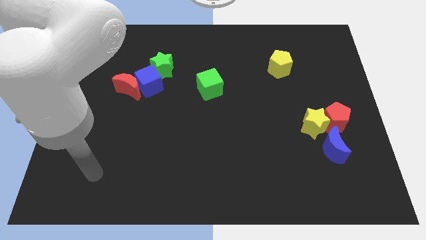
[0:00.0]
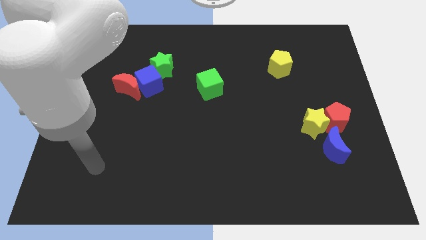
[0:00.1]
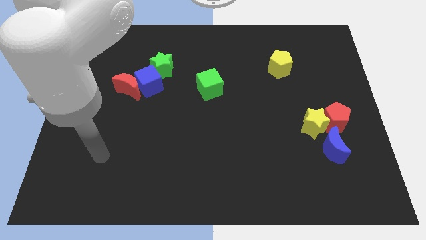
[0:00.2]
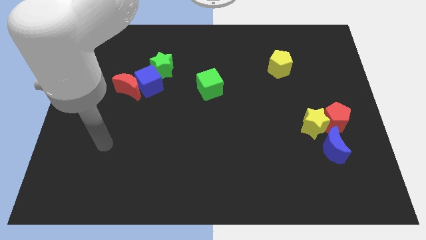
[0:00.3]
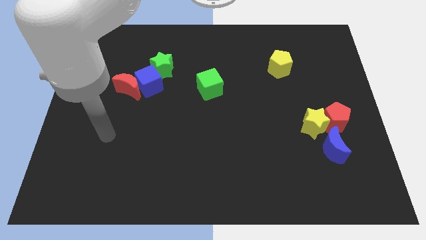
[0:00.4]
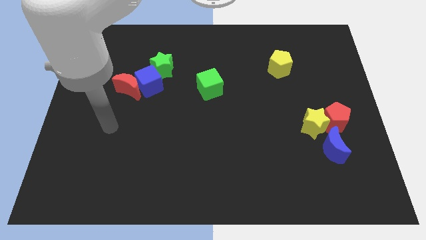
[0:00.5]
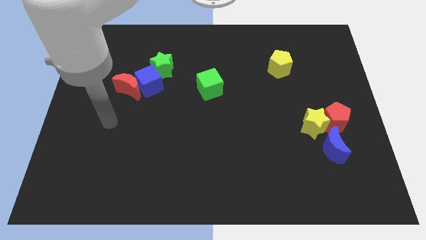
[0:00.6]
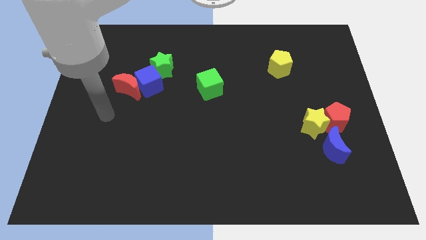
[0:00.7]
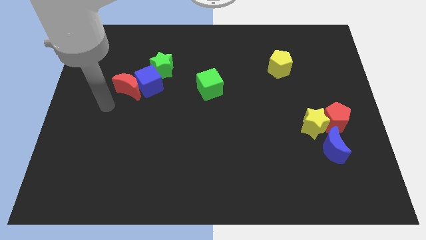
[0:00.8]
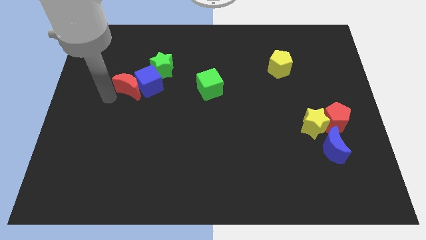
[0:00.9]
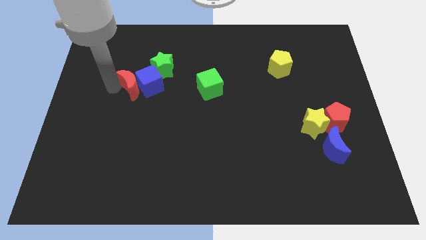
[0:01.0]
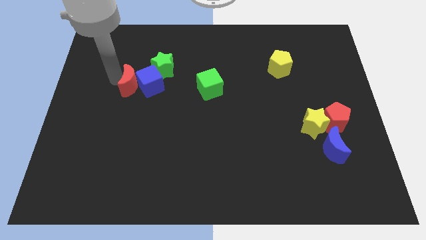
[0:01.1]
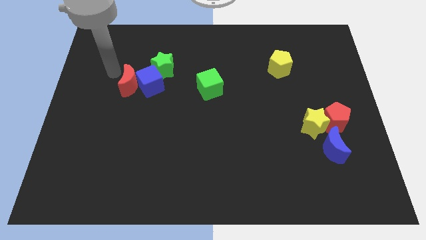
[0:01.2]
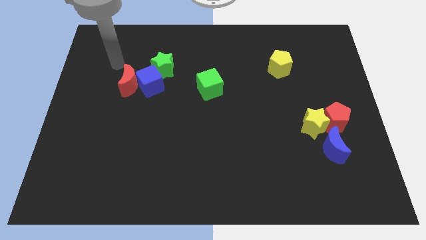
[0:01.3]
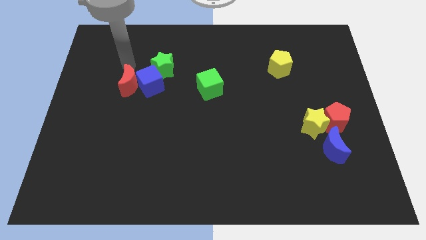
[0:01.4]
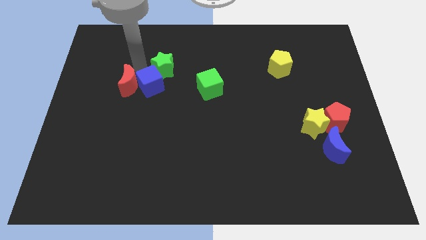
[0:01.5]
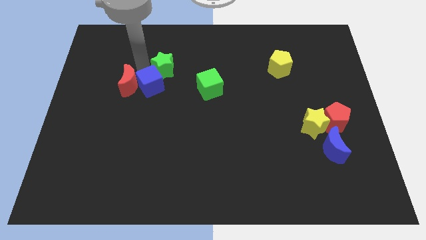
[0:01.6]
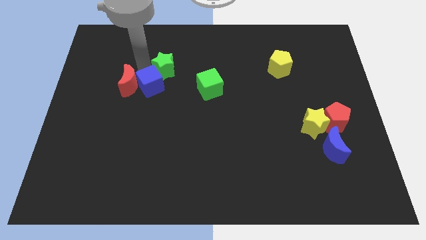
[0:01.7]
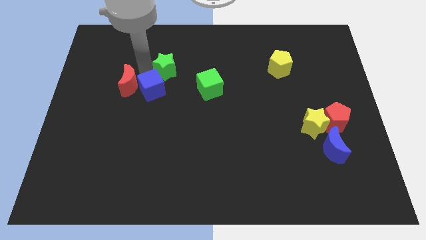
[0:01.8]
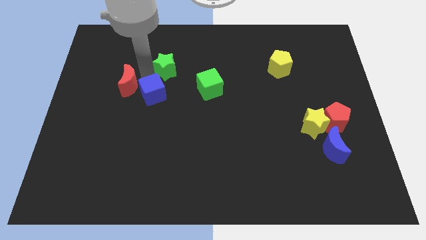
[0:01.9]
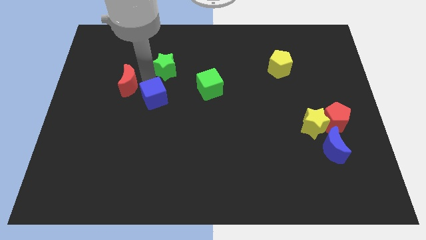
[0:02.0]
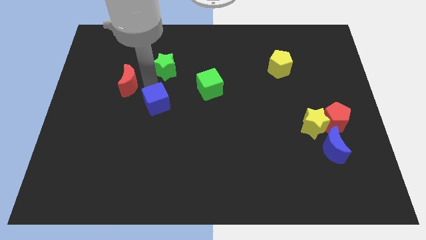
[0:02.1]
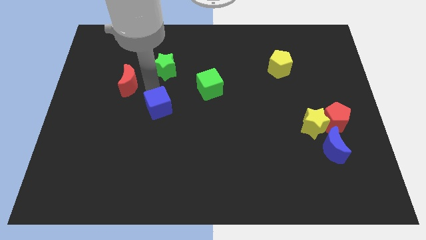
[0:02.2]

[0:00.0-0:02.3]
move the blue cube away from the red moon and green star

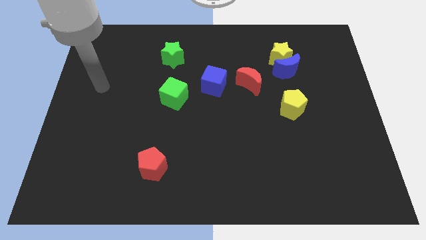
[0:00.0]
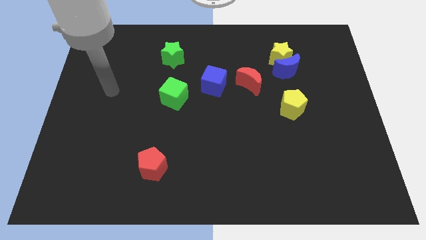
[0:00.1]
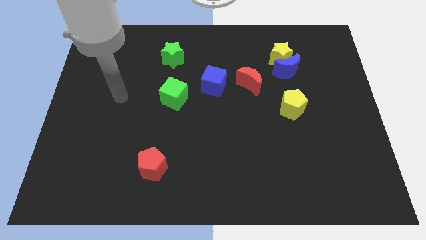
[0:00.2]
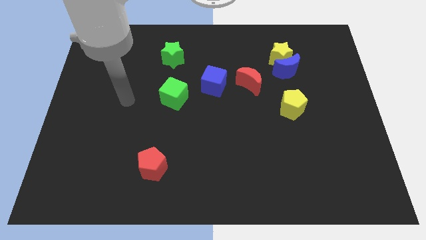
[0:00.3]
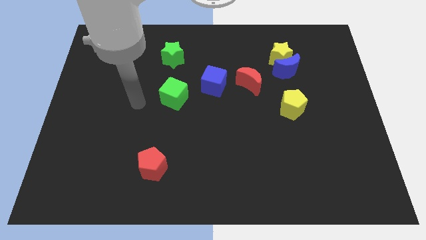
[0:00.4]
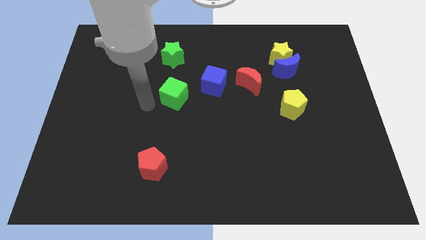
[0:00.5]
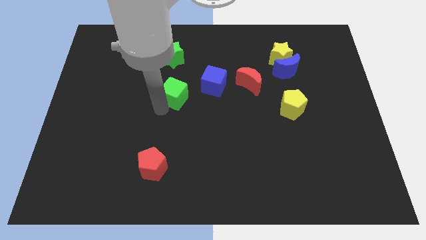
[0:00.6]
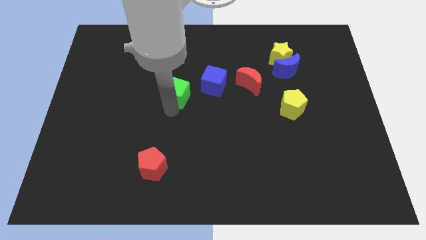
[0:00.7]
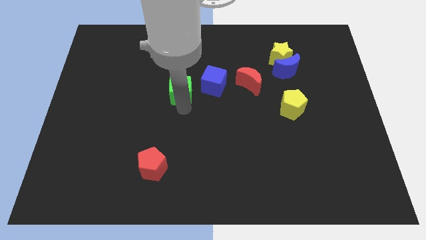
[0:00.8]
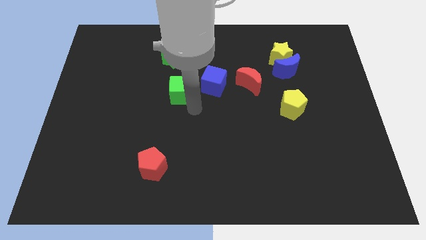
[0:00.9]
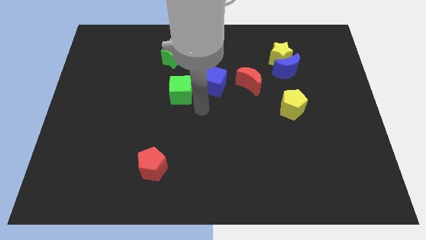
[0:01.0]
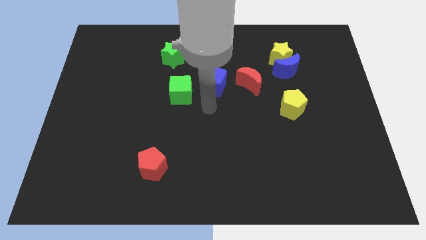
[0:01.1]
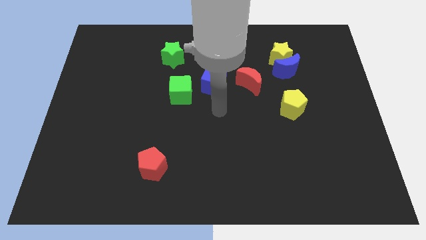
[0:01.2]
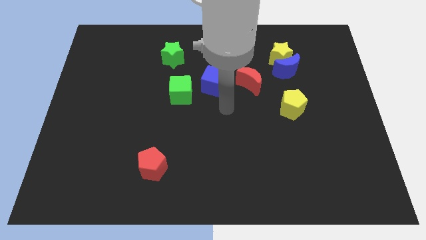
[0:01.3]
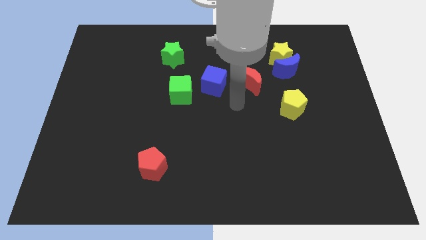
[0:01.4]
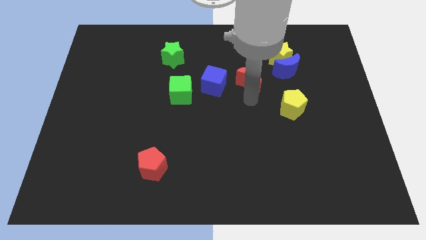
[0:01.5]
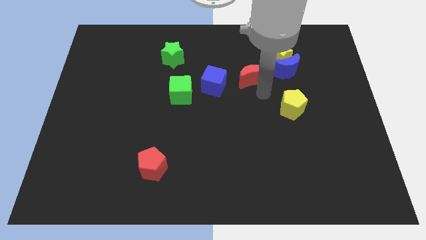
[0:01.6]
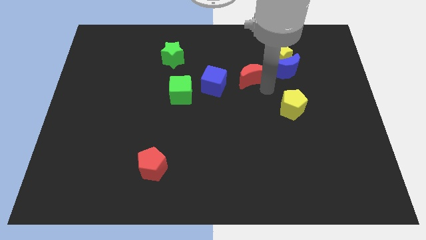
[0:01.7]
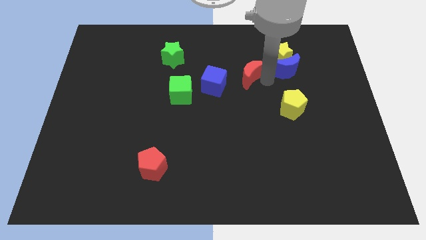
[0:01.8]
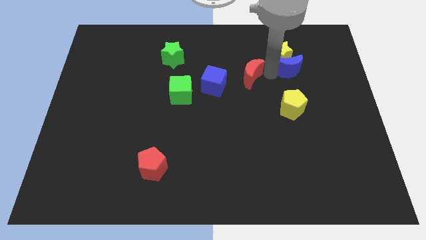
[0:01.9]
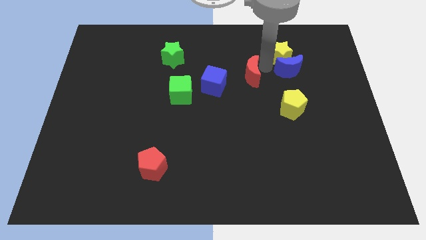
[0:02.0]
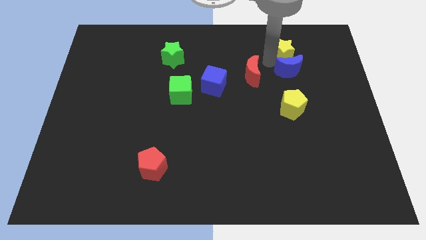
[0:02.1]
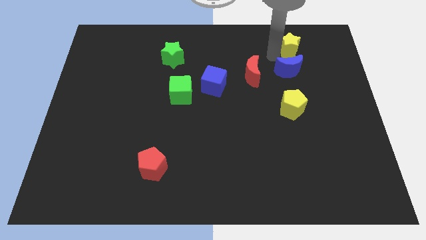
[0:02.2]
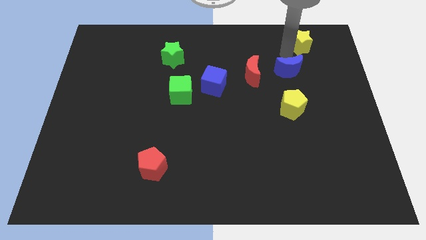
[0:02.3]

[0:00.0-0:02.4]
separate the blue moon from the yellow star

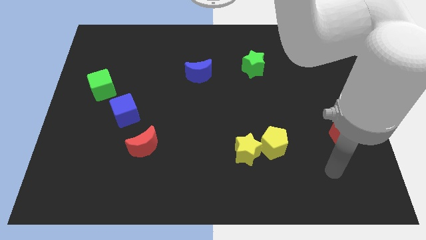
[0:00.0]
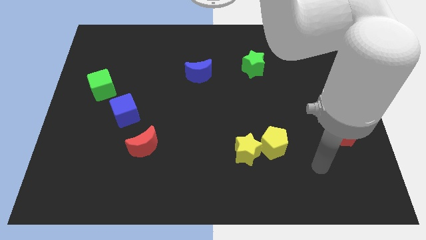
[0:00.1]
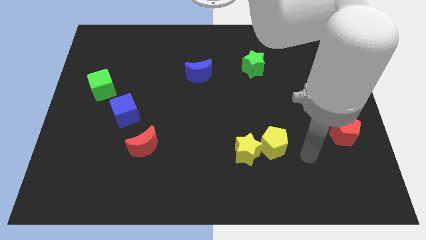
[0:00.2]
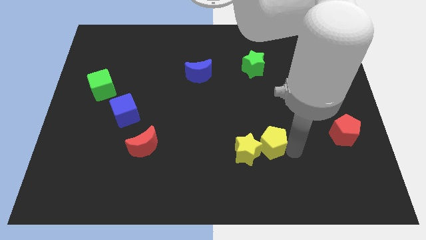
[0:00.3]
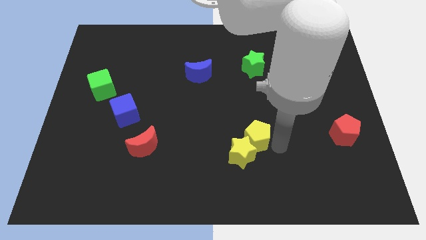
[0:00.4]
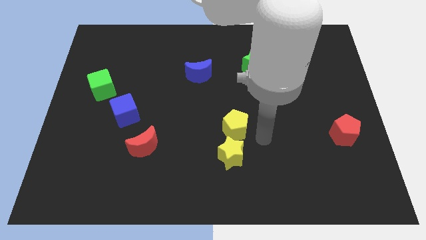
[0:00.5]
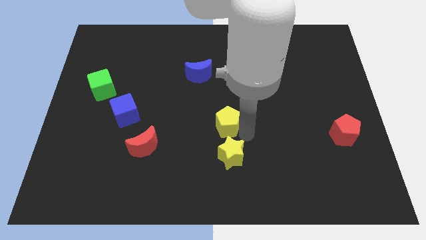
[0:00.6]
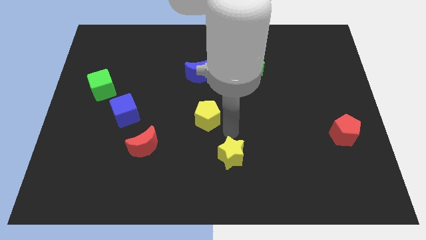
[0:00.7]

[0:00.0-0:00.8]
separate the yellow star from the yellow pentagon

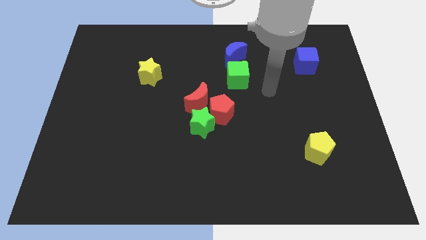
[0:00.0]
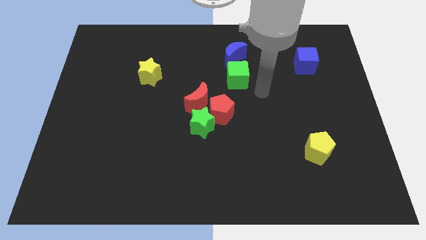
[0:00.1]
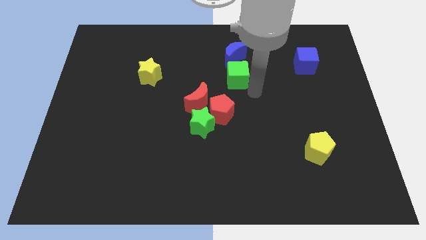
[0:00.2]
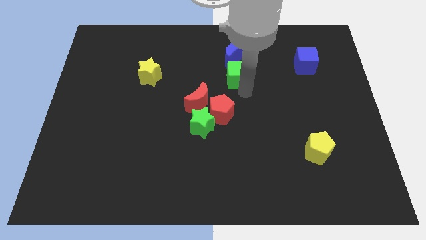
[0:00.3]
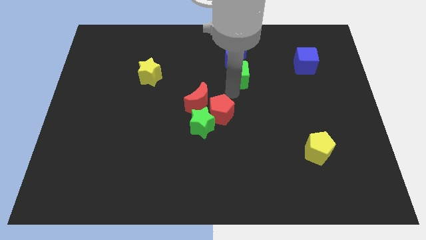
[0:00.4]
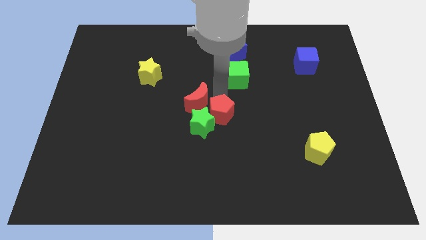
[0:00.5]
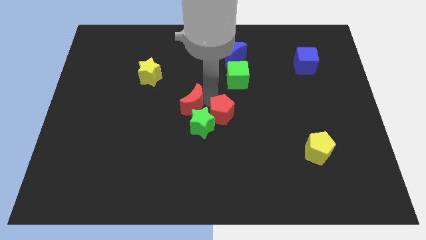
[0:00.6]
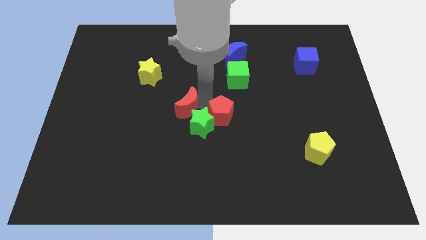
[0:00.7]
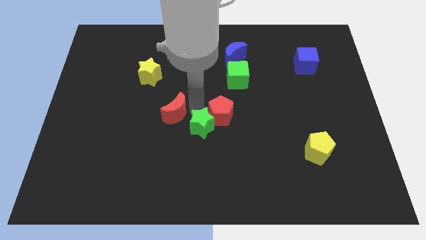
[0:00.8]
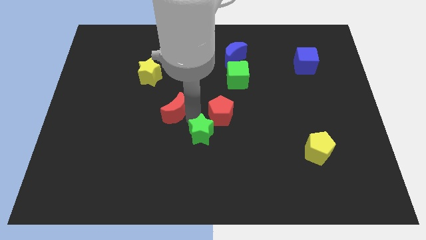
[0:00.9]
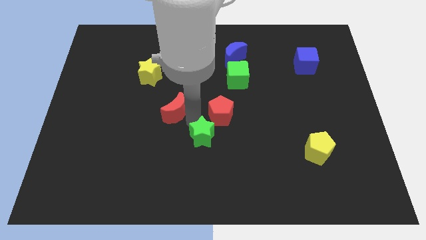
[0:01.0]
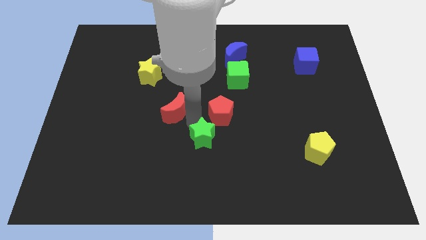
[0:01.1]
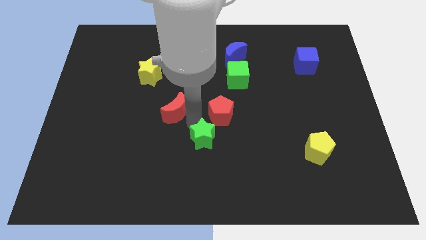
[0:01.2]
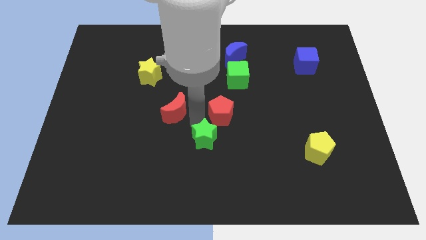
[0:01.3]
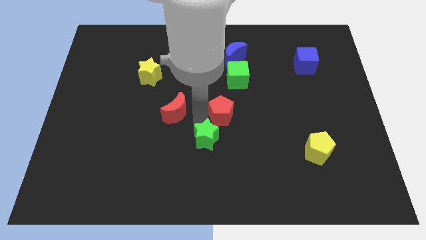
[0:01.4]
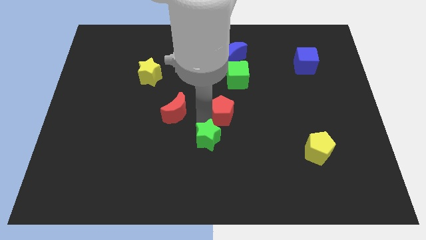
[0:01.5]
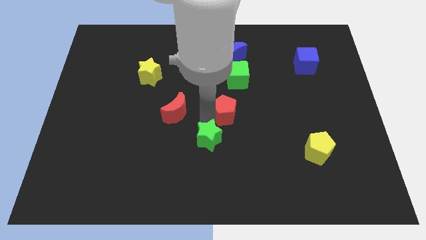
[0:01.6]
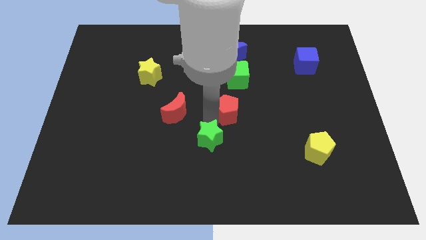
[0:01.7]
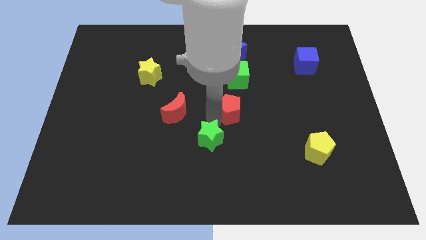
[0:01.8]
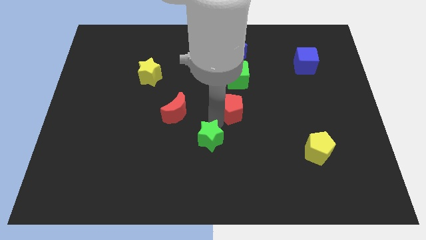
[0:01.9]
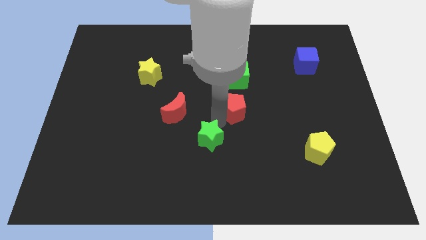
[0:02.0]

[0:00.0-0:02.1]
pull the red pentagon apart from the green star and red moon

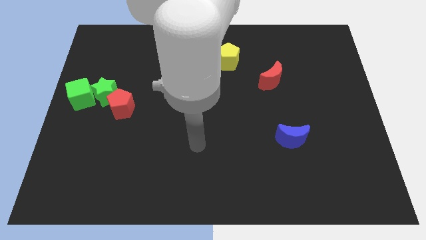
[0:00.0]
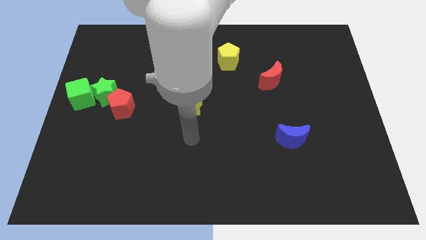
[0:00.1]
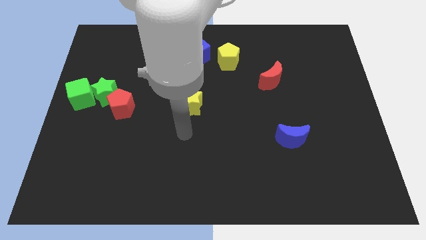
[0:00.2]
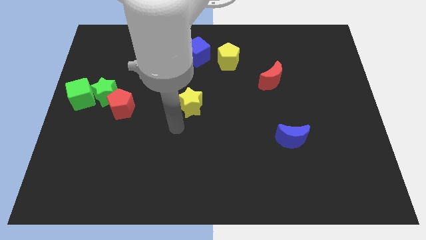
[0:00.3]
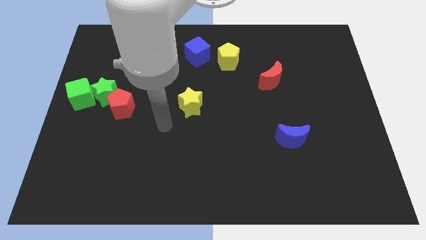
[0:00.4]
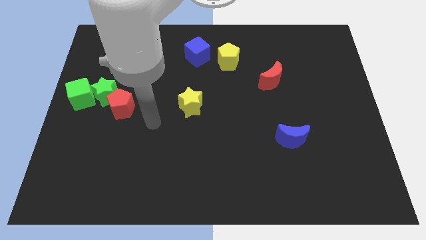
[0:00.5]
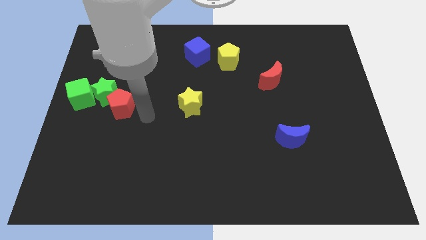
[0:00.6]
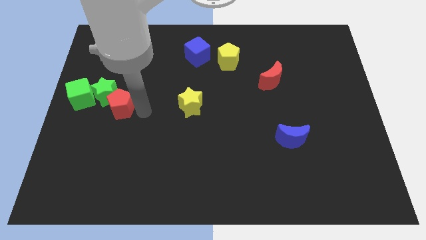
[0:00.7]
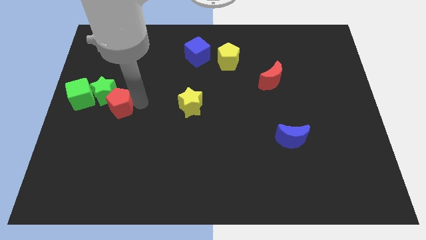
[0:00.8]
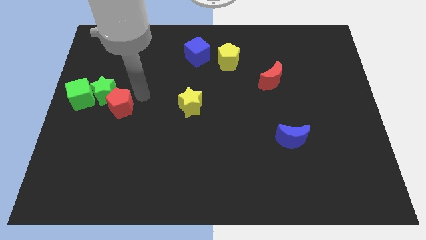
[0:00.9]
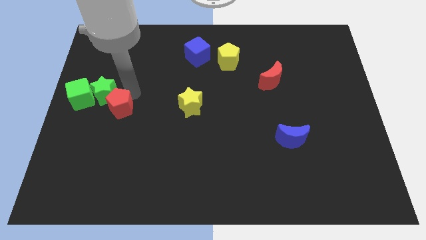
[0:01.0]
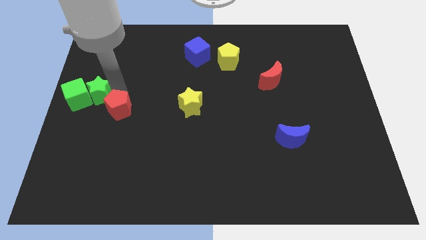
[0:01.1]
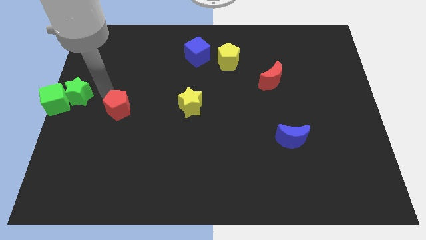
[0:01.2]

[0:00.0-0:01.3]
pull the red pentagon apart from the green star

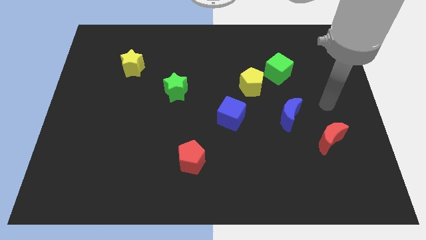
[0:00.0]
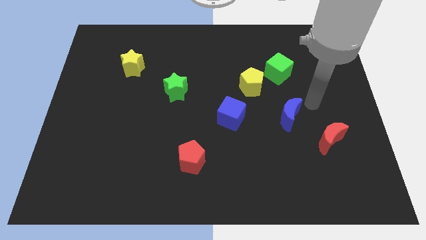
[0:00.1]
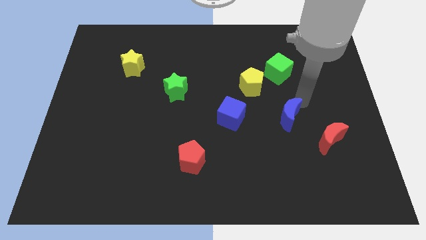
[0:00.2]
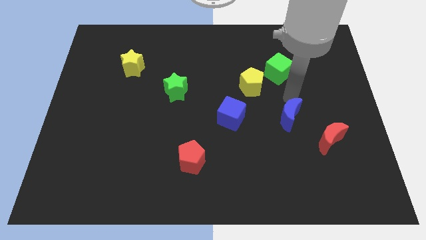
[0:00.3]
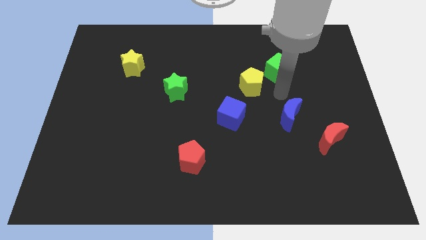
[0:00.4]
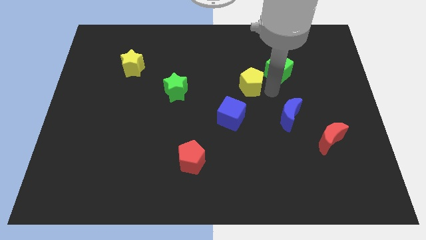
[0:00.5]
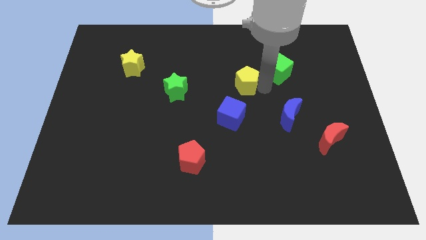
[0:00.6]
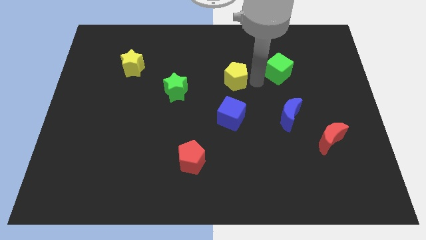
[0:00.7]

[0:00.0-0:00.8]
separate the green cube from the yellow pentagon
